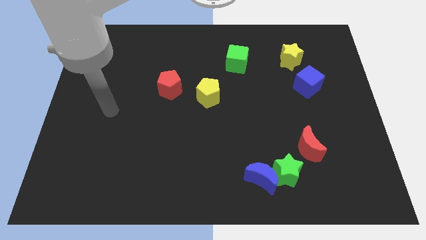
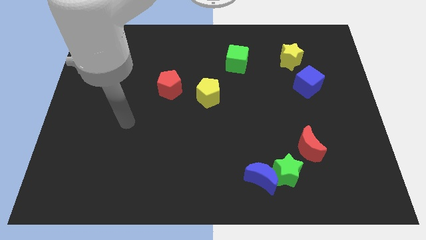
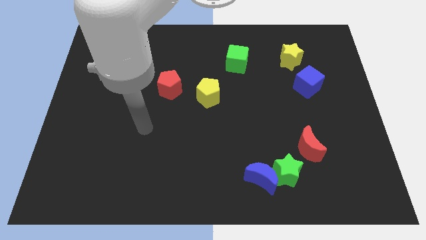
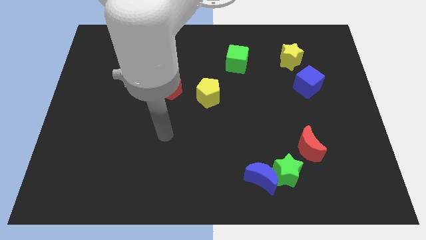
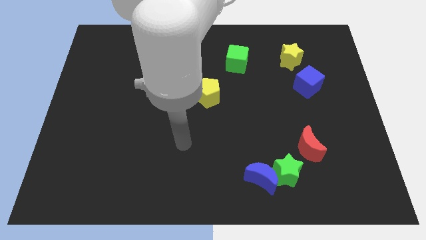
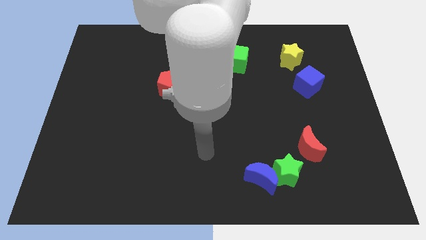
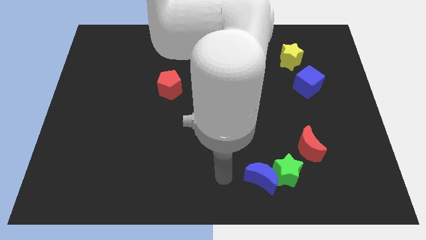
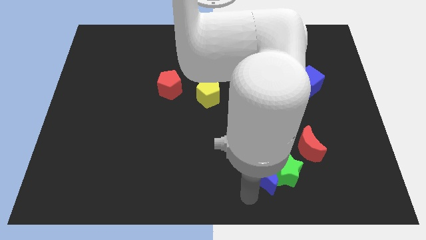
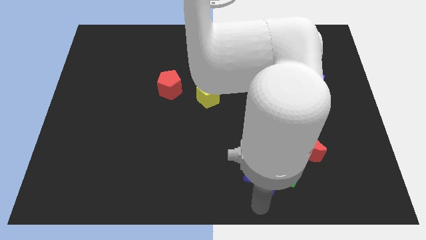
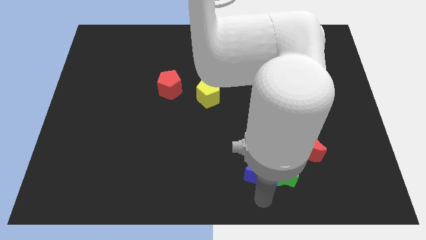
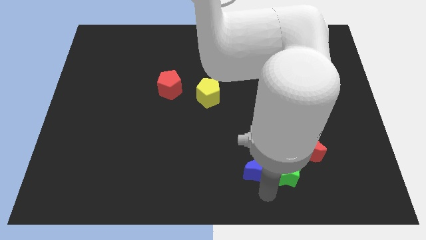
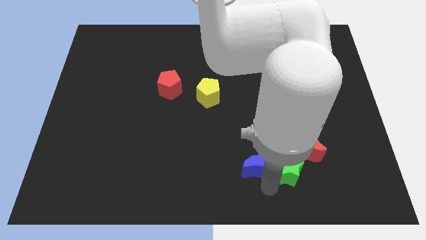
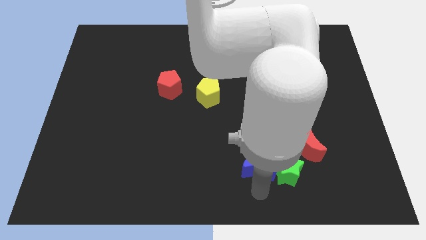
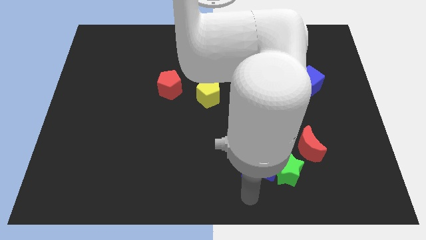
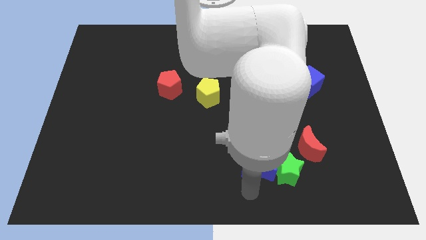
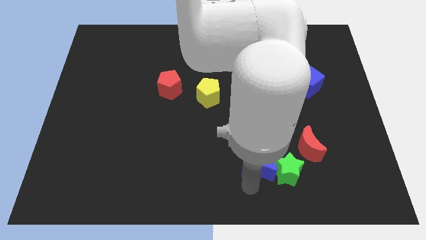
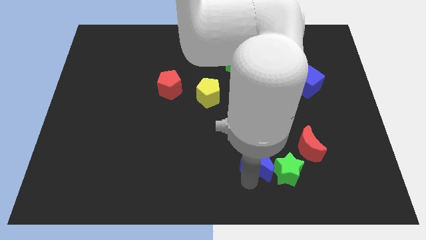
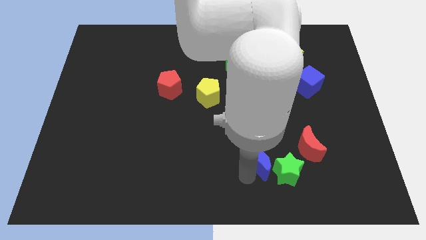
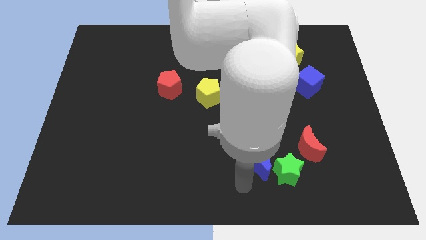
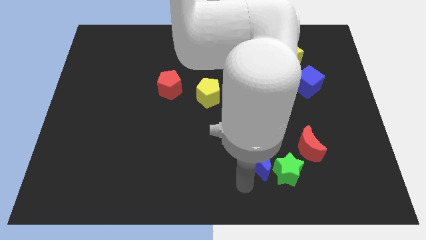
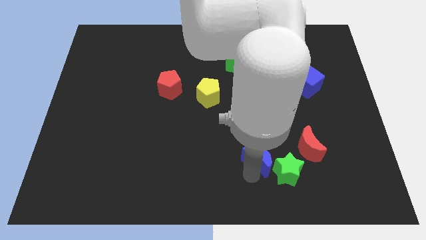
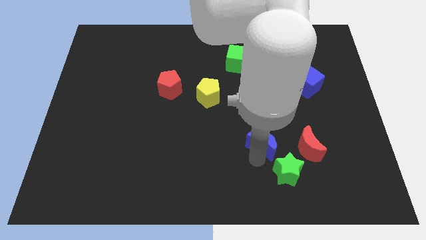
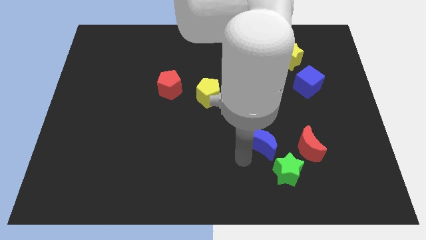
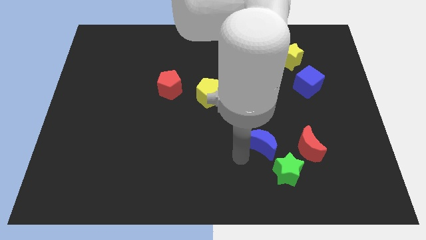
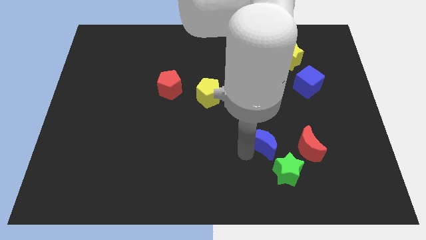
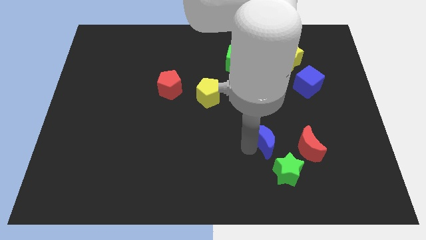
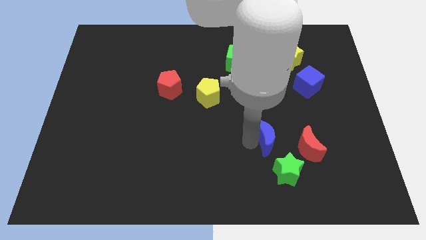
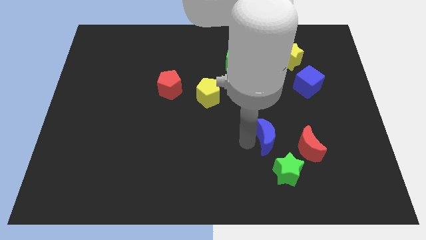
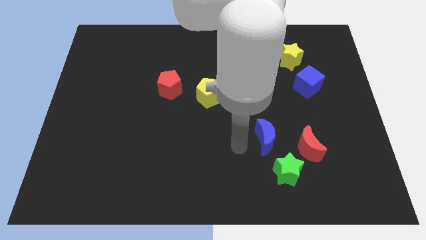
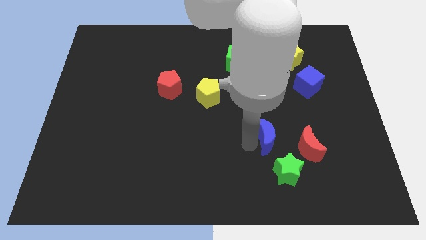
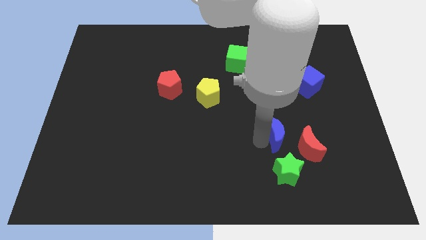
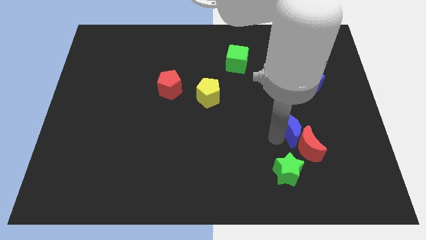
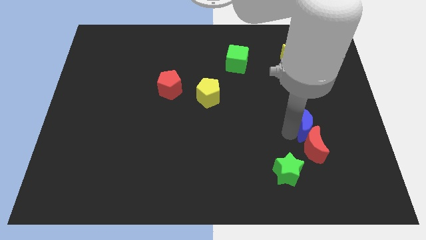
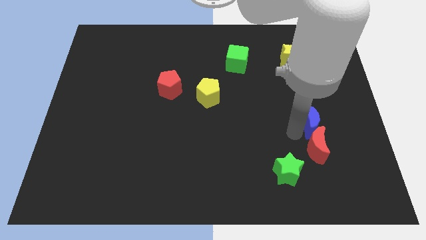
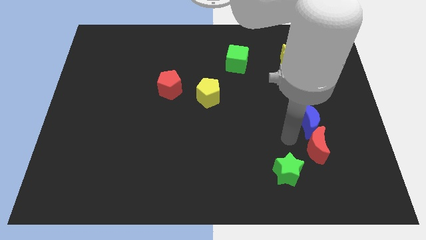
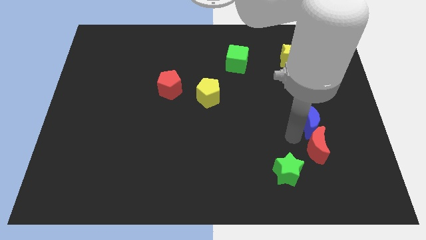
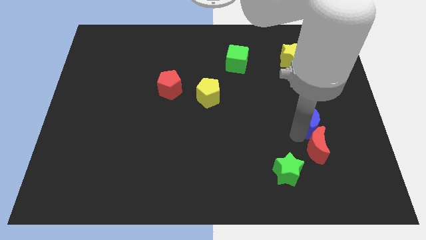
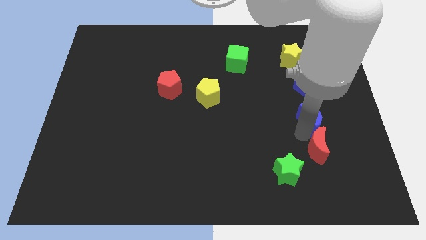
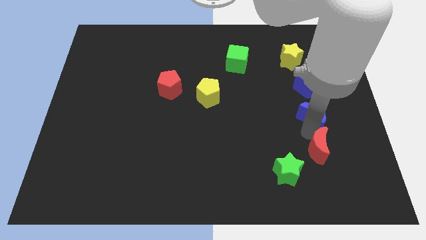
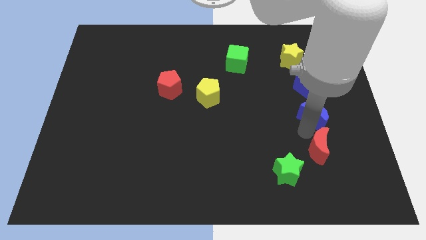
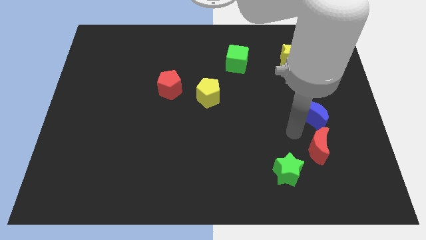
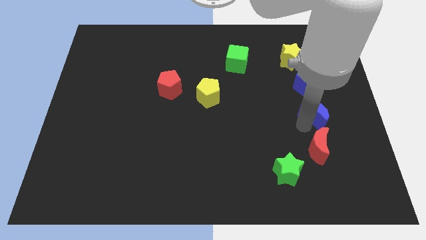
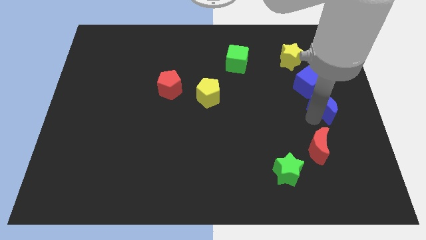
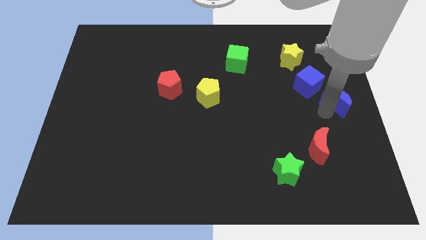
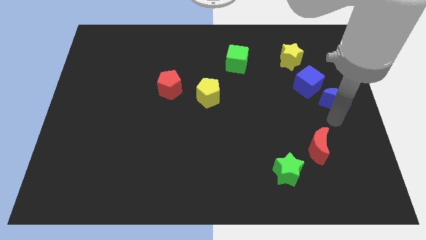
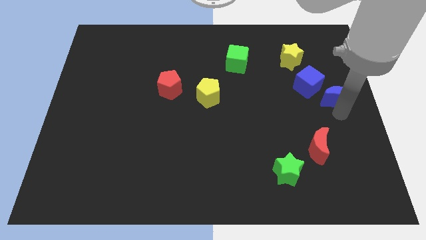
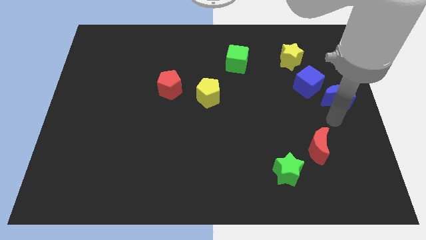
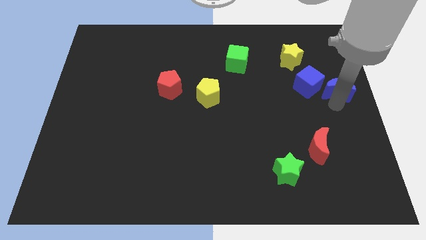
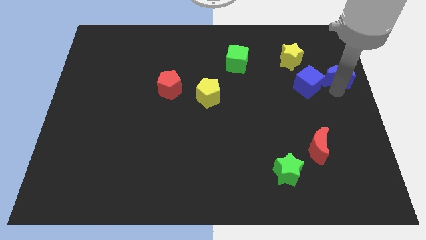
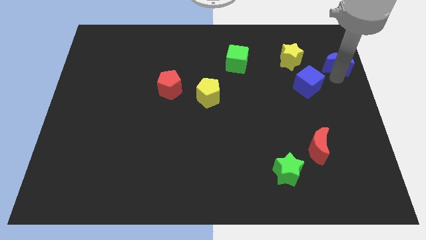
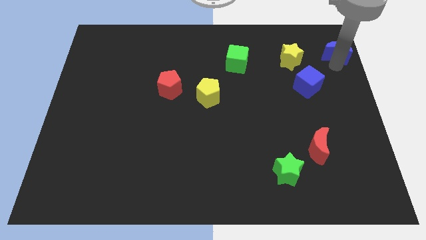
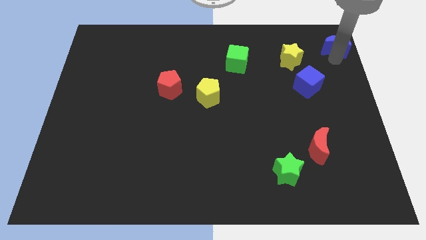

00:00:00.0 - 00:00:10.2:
slide the blue moon to the upper right corner

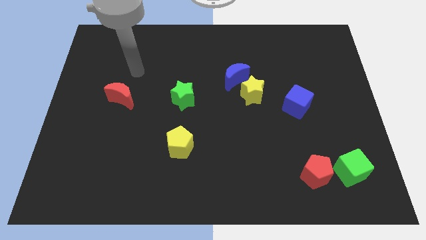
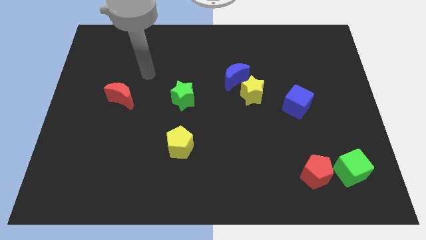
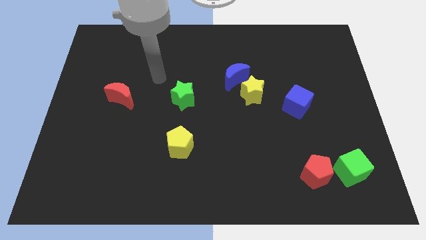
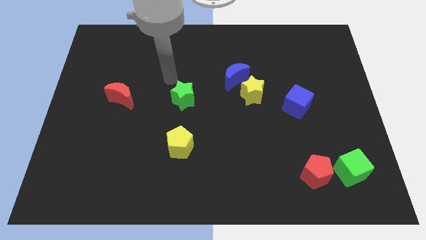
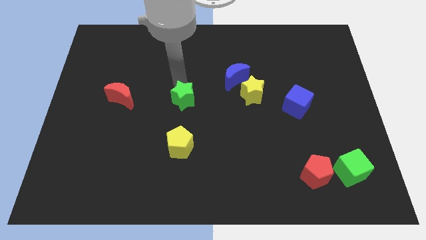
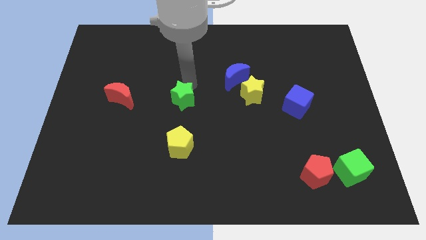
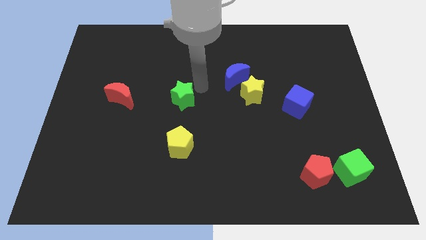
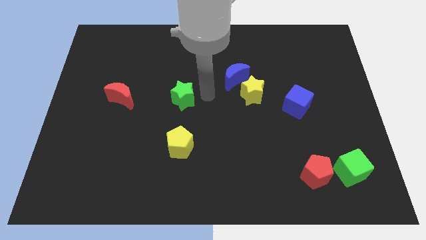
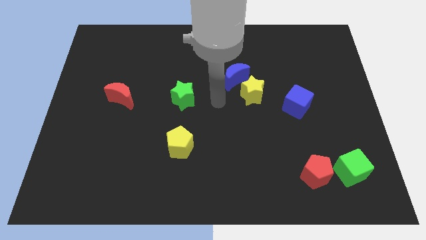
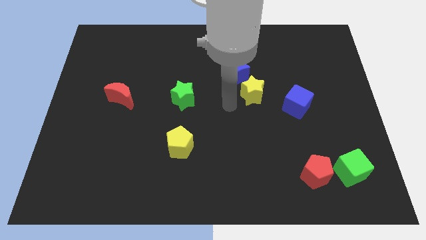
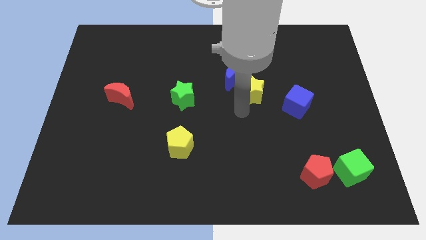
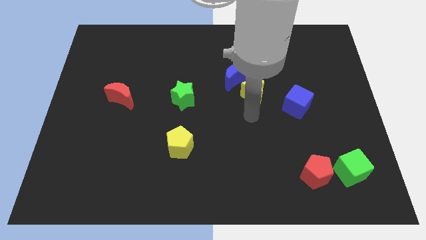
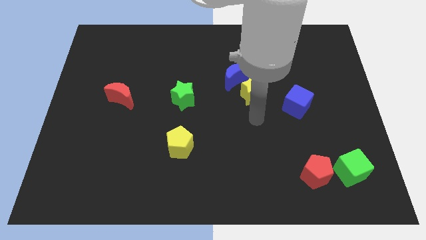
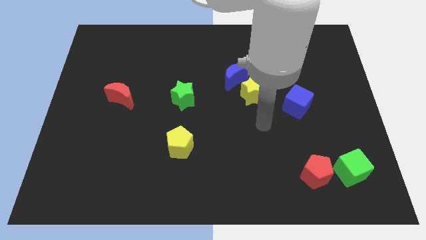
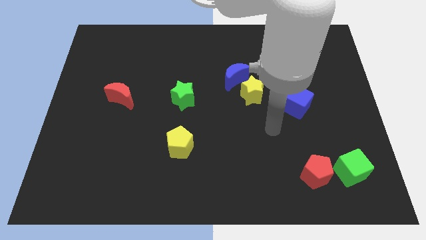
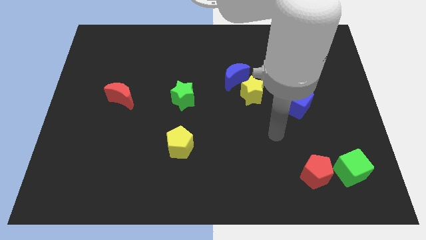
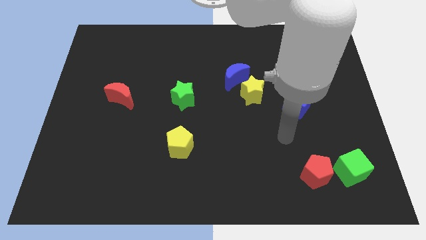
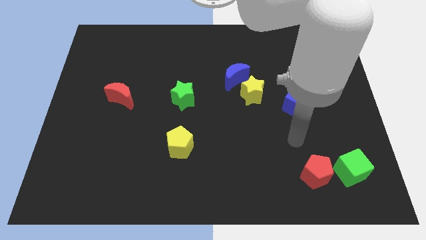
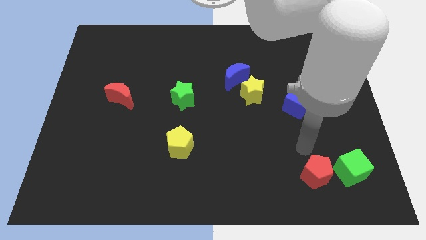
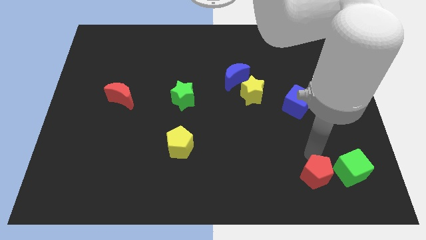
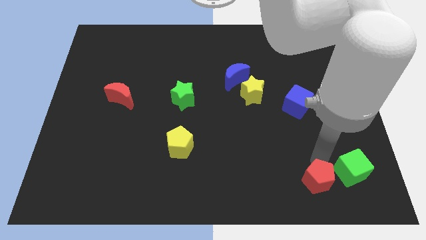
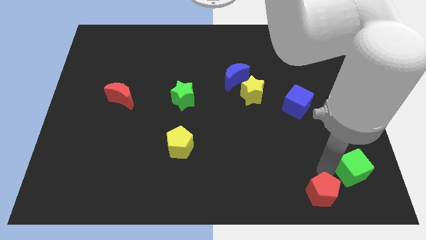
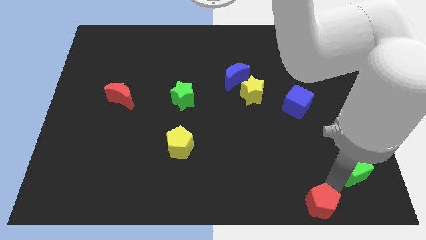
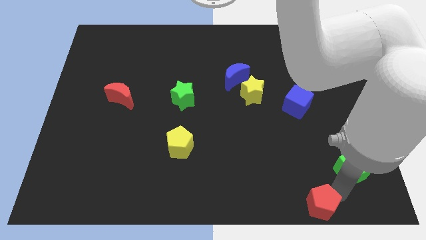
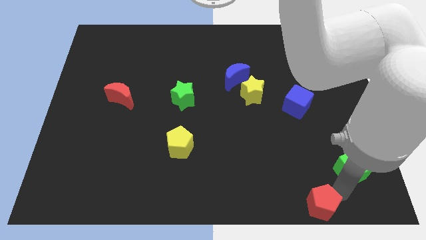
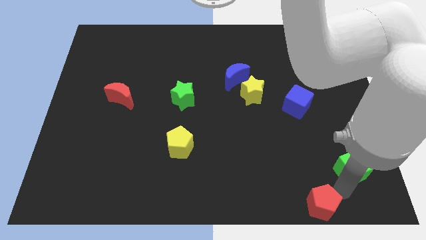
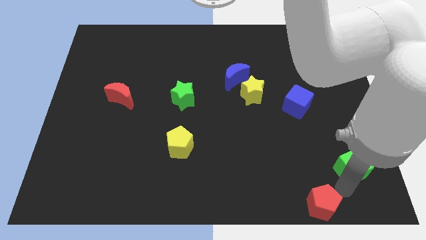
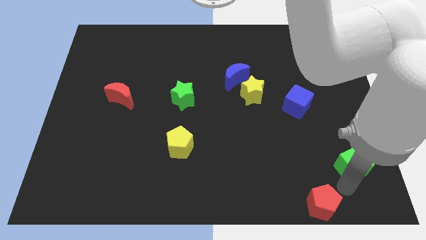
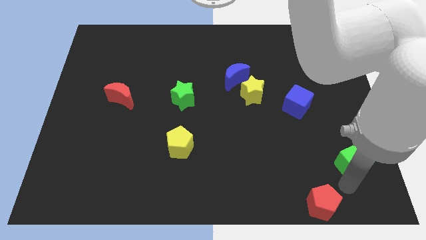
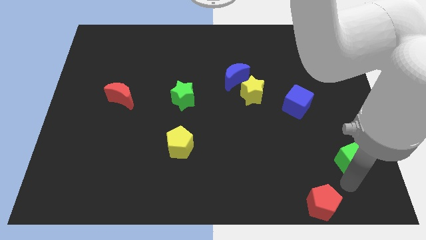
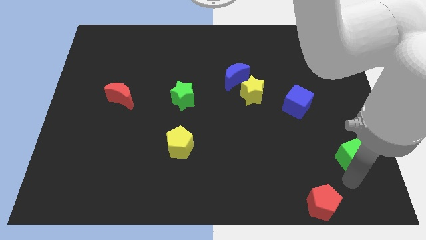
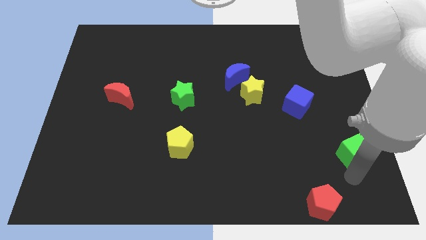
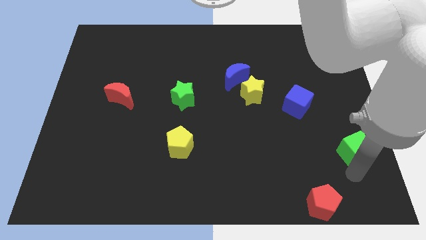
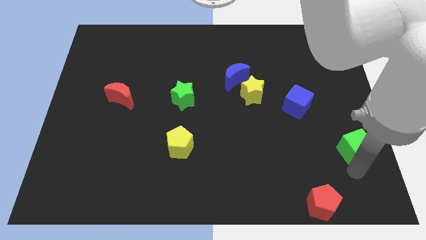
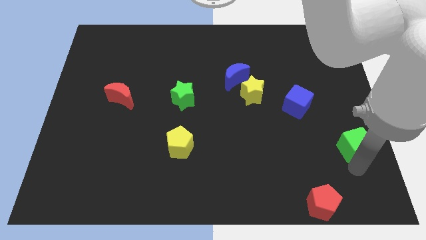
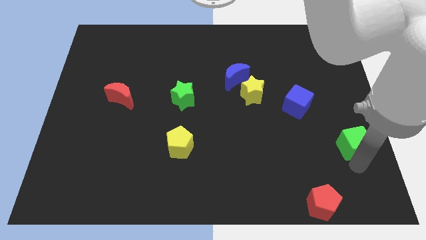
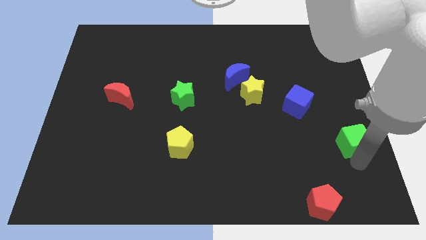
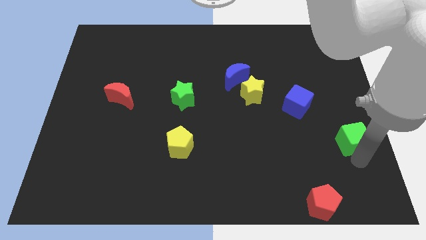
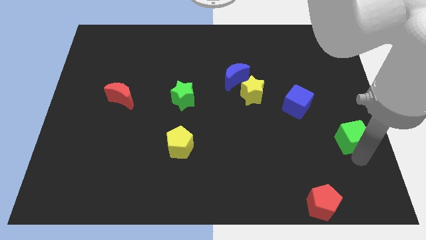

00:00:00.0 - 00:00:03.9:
slide the green cube to the center right
